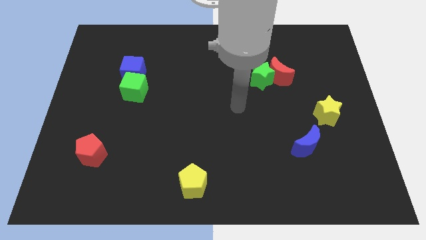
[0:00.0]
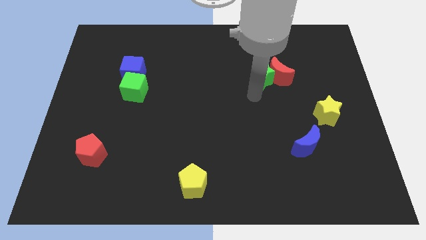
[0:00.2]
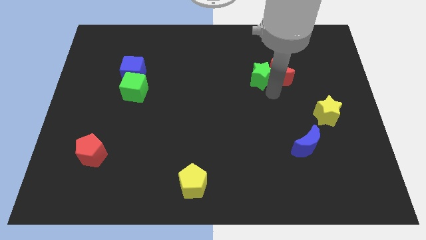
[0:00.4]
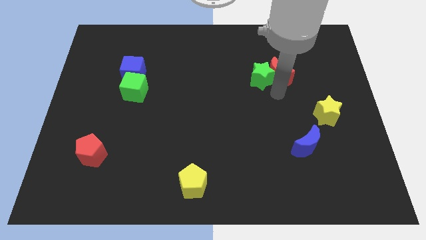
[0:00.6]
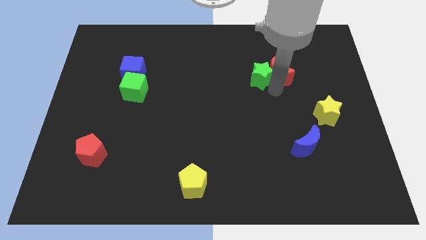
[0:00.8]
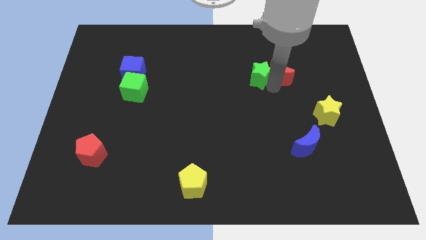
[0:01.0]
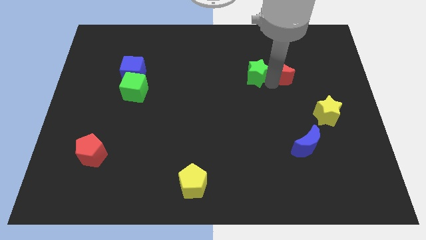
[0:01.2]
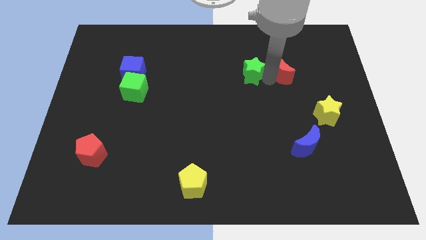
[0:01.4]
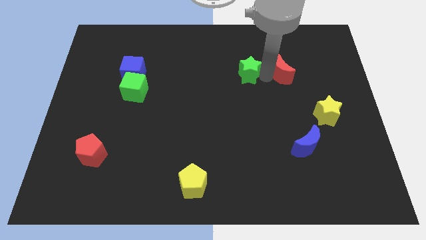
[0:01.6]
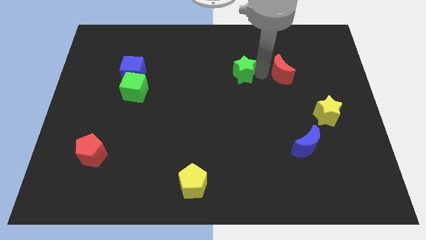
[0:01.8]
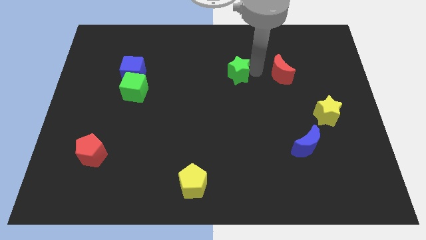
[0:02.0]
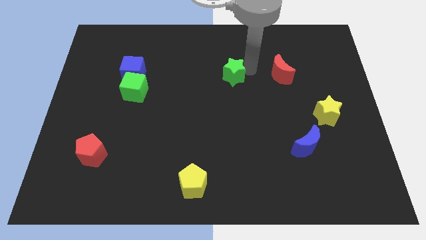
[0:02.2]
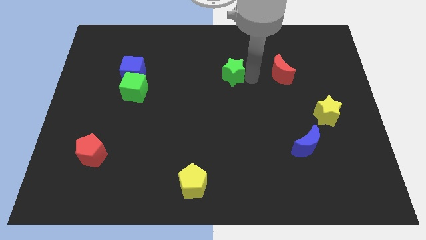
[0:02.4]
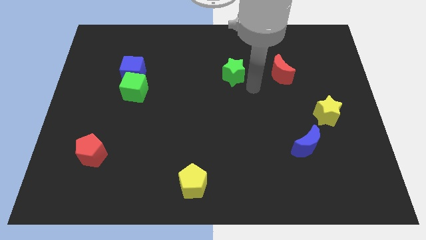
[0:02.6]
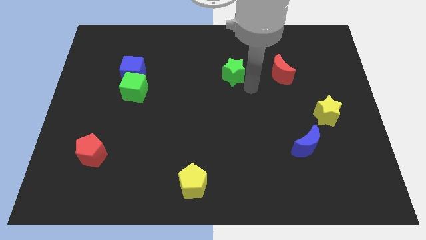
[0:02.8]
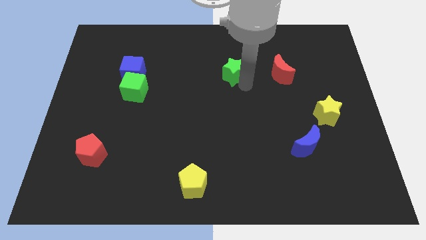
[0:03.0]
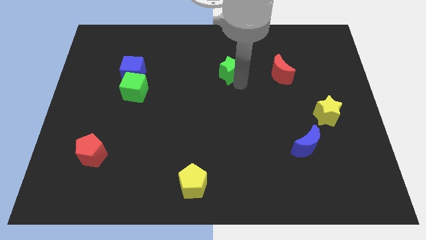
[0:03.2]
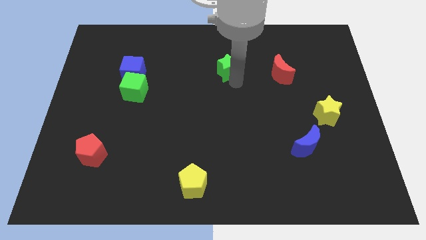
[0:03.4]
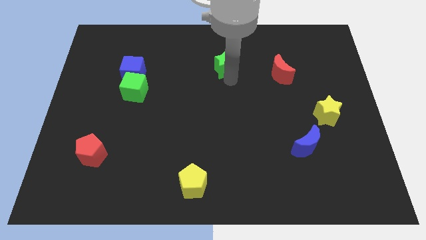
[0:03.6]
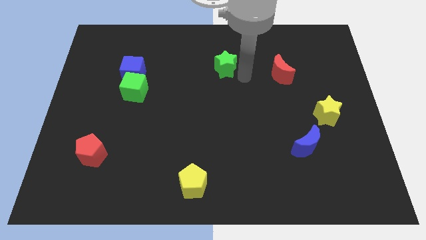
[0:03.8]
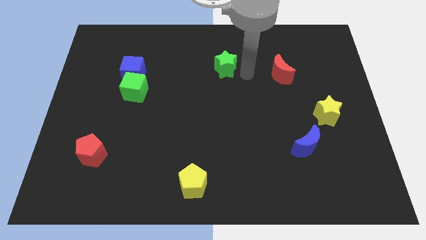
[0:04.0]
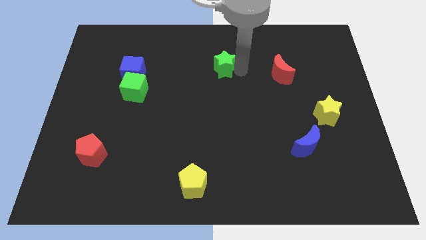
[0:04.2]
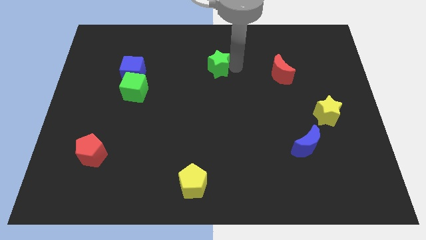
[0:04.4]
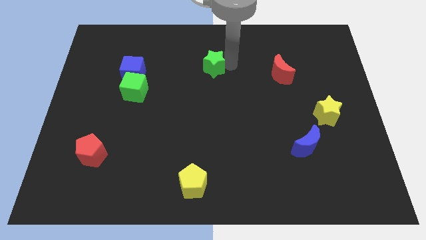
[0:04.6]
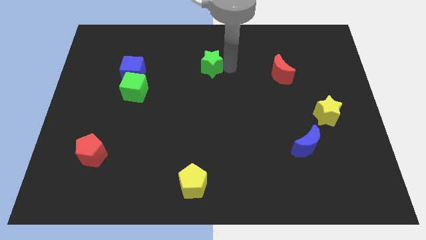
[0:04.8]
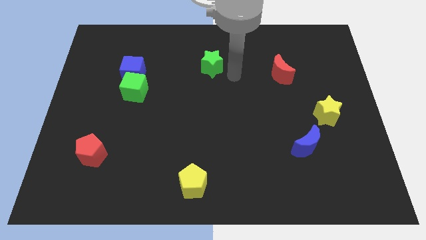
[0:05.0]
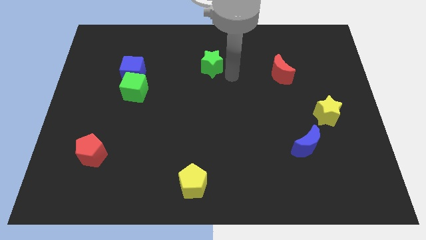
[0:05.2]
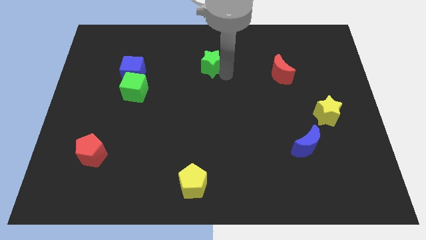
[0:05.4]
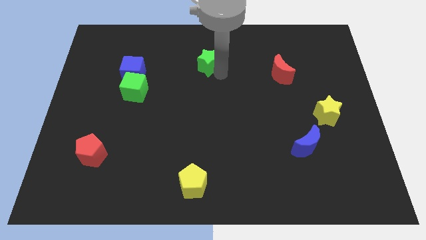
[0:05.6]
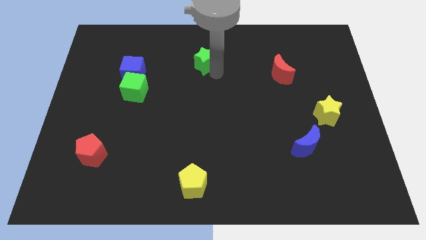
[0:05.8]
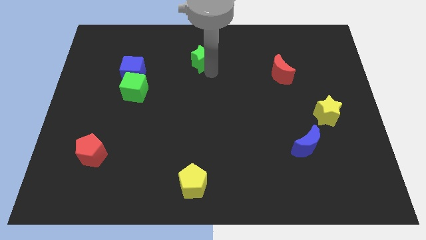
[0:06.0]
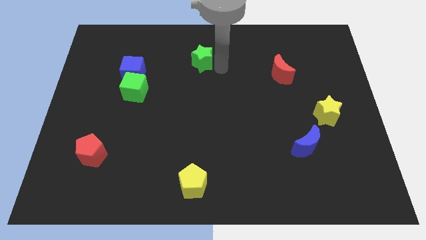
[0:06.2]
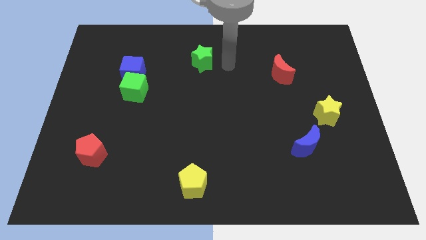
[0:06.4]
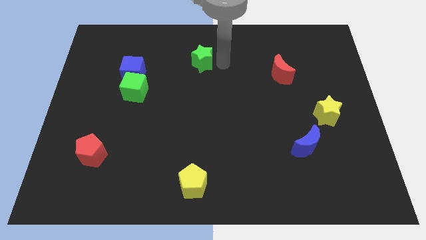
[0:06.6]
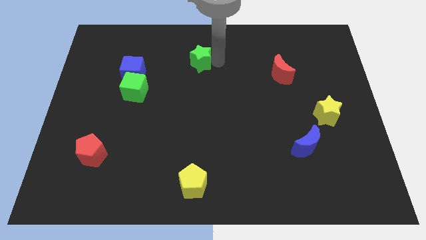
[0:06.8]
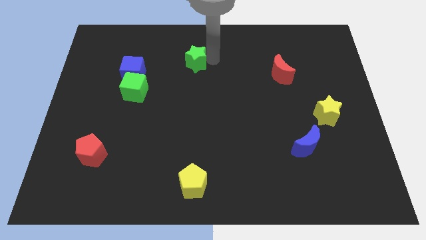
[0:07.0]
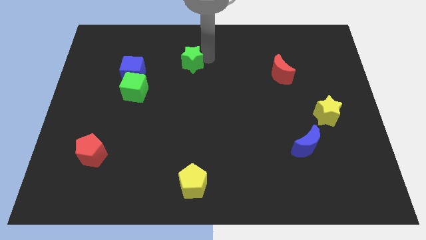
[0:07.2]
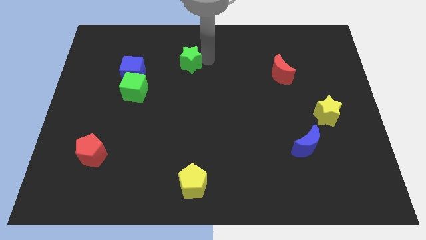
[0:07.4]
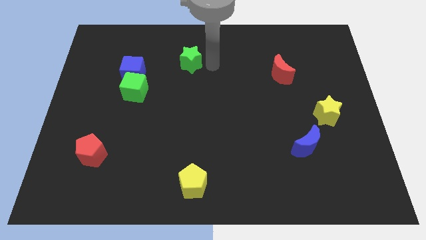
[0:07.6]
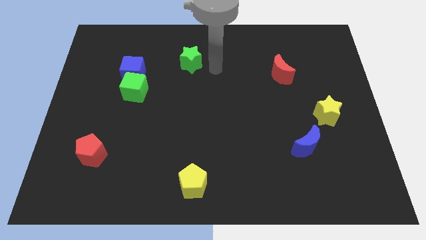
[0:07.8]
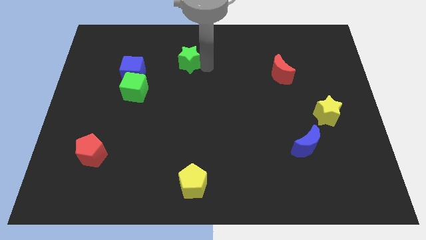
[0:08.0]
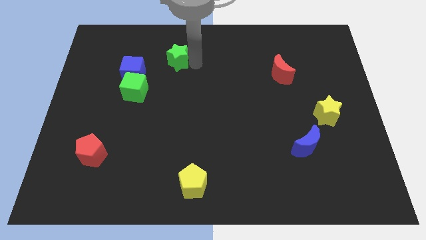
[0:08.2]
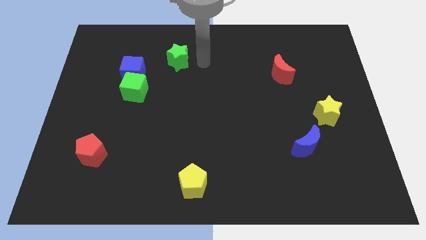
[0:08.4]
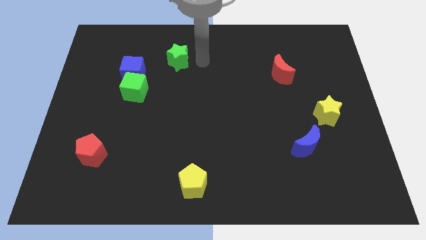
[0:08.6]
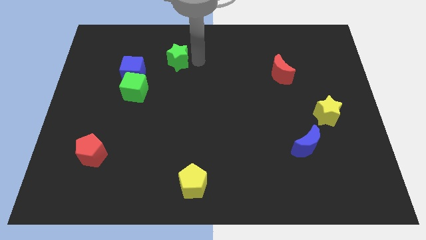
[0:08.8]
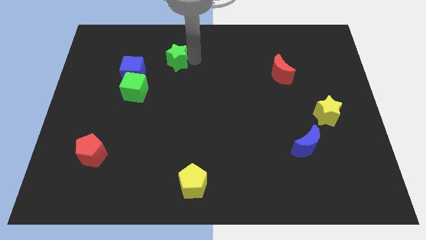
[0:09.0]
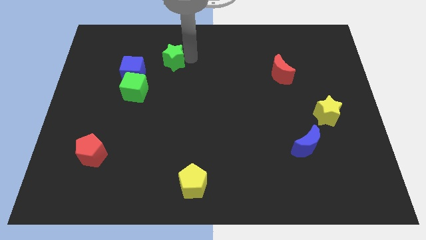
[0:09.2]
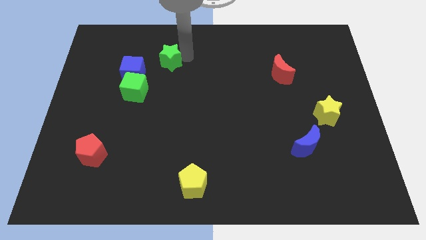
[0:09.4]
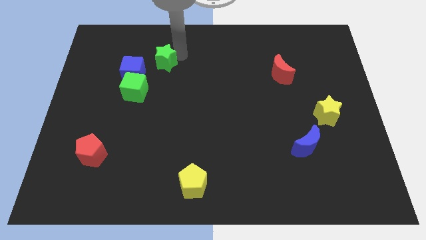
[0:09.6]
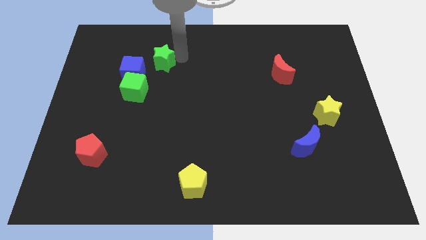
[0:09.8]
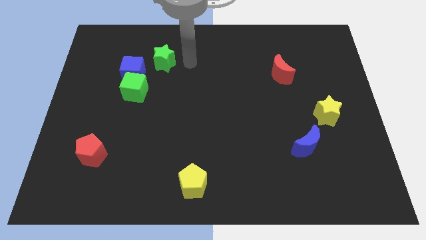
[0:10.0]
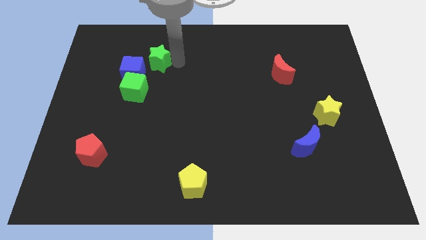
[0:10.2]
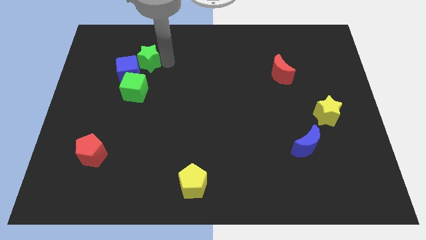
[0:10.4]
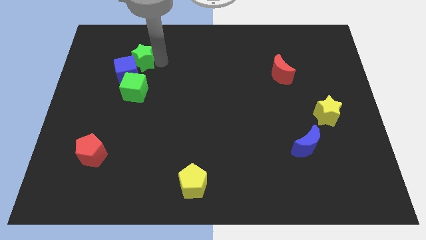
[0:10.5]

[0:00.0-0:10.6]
put the green star close to the blue cube

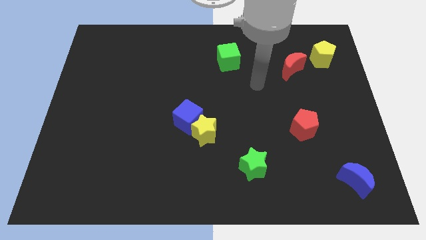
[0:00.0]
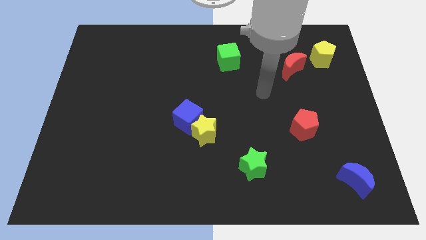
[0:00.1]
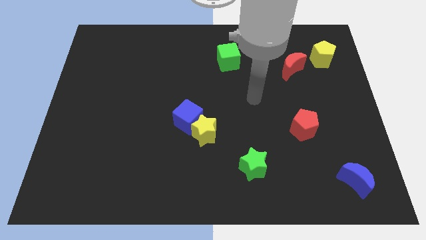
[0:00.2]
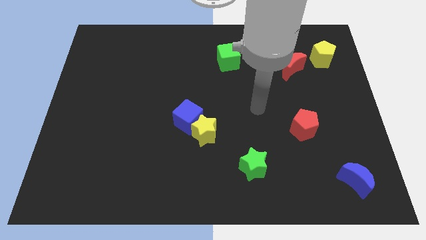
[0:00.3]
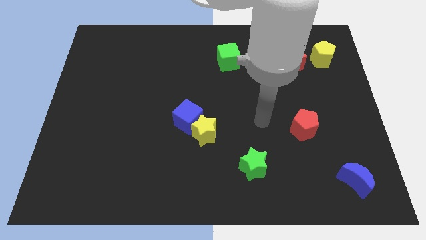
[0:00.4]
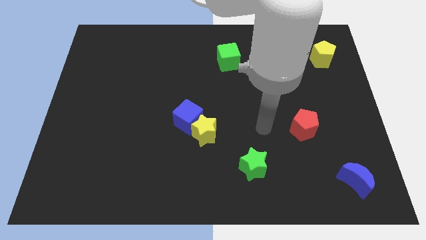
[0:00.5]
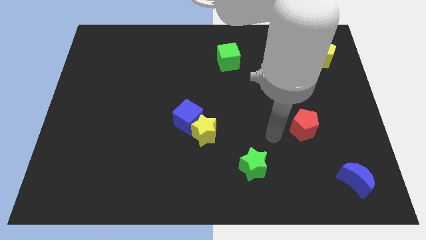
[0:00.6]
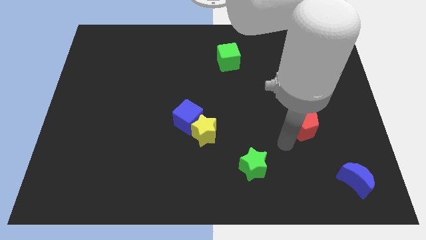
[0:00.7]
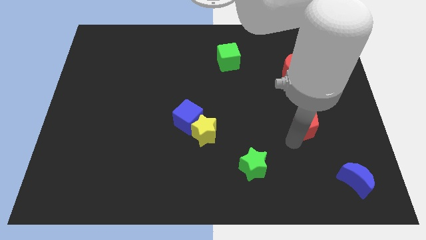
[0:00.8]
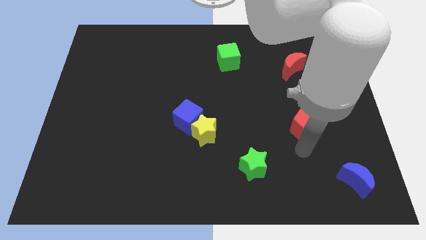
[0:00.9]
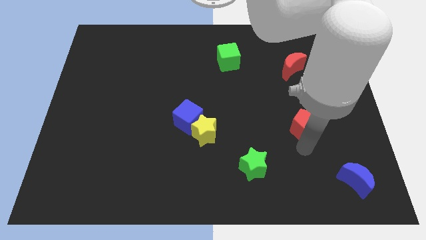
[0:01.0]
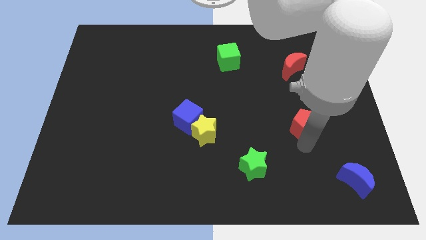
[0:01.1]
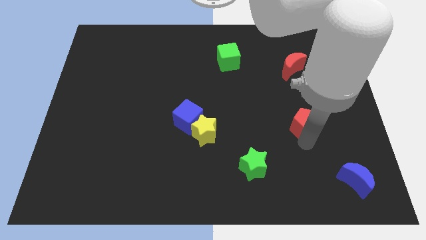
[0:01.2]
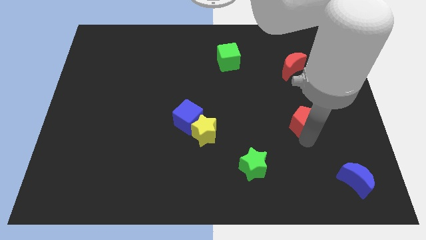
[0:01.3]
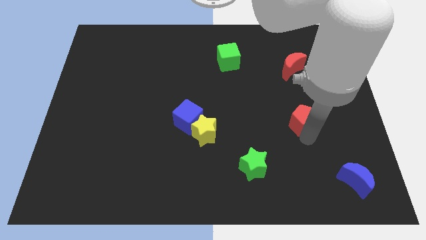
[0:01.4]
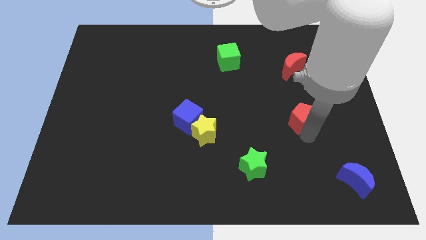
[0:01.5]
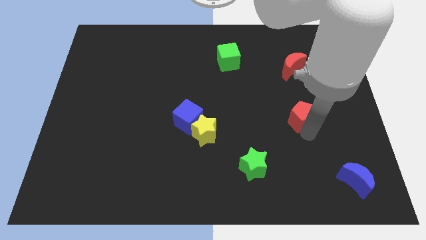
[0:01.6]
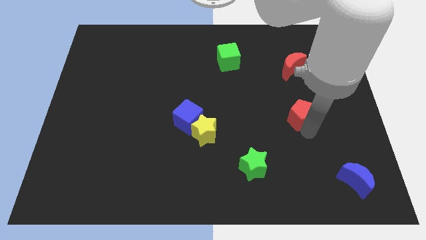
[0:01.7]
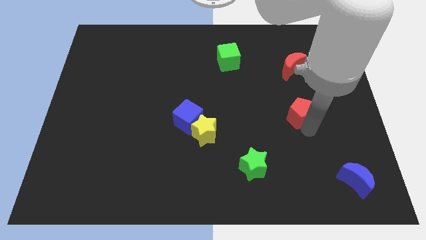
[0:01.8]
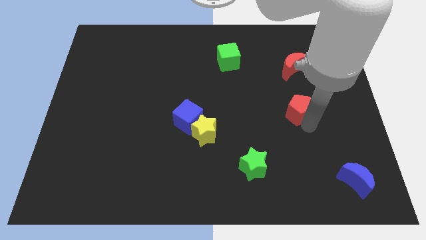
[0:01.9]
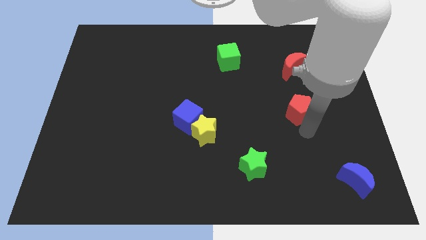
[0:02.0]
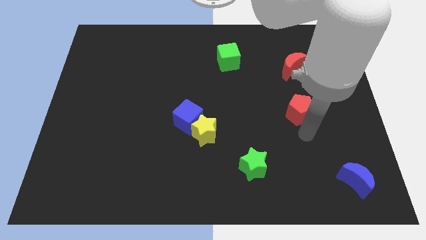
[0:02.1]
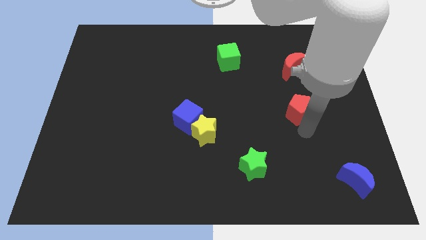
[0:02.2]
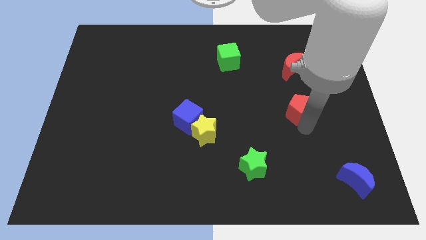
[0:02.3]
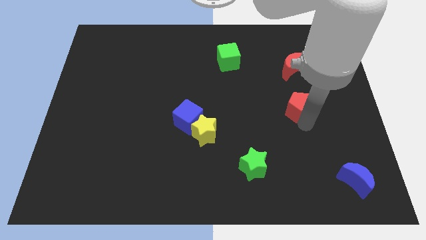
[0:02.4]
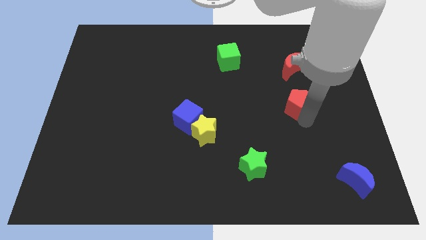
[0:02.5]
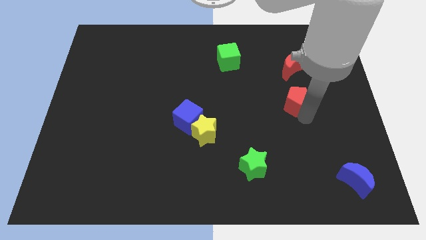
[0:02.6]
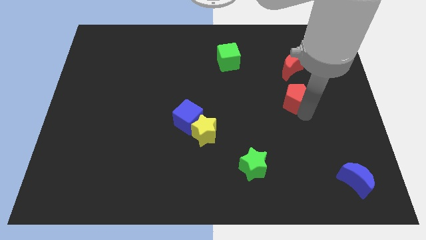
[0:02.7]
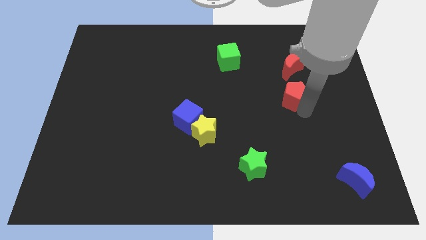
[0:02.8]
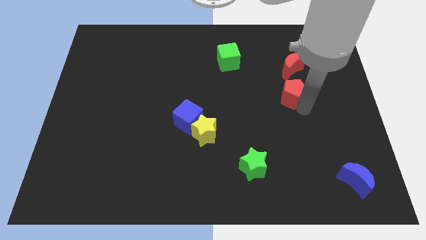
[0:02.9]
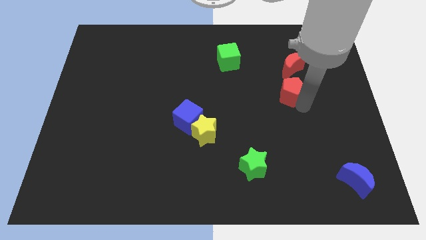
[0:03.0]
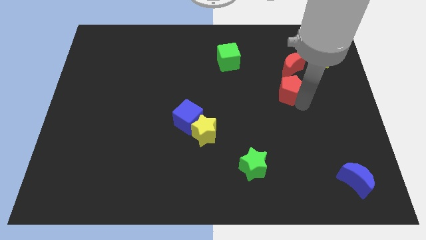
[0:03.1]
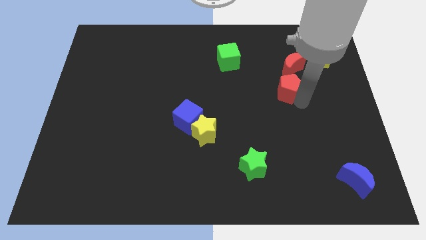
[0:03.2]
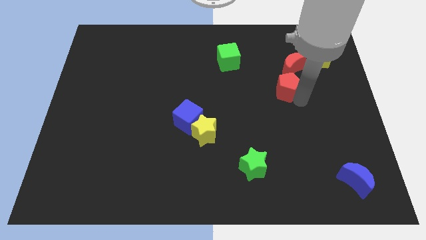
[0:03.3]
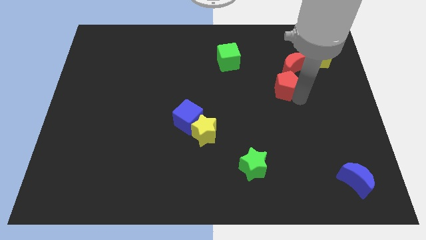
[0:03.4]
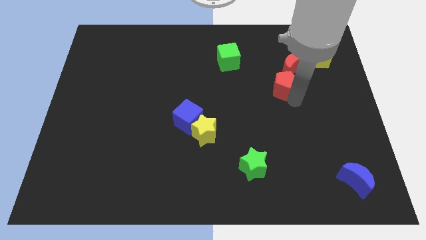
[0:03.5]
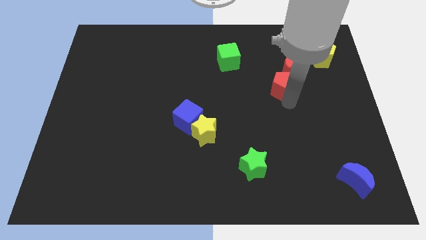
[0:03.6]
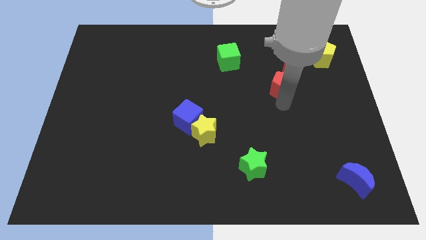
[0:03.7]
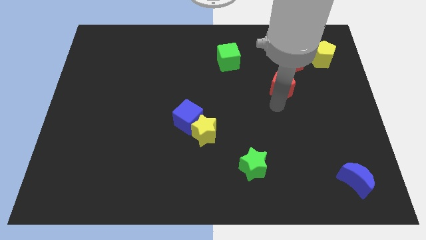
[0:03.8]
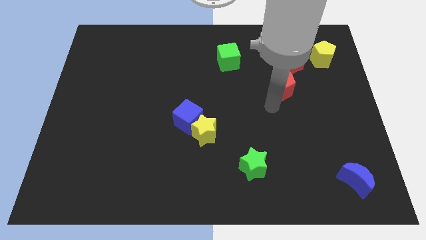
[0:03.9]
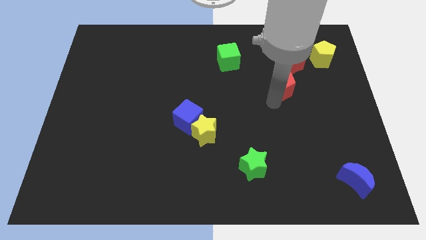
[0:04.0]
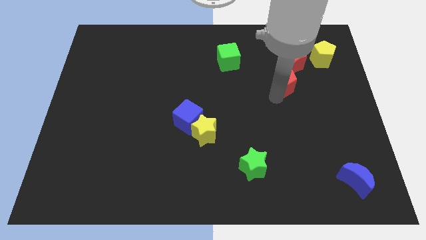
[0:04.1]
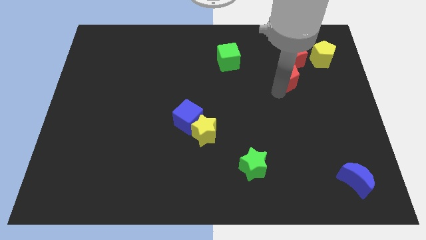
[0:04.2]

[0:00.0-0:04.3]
push the red pentagon close to the red moon
